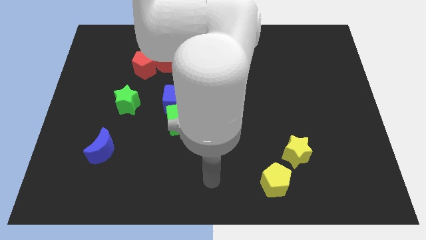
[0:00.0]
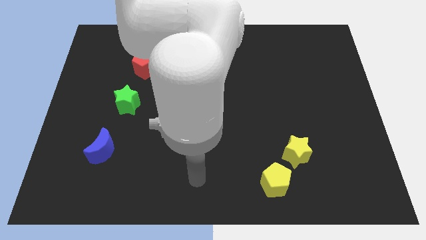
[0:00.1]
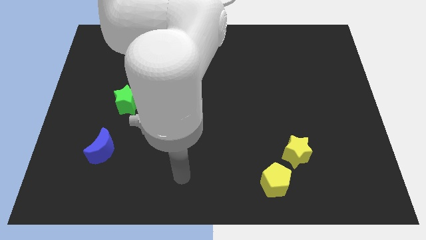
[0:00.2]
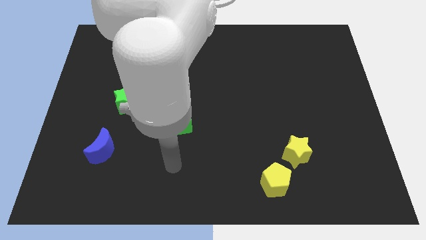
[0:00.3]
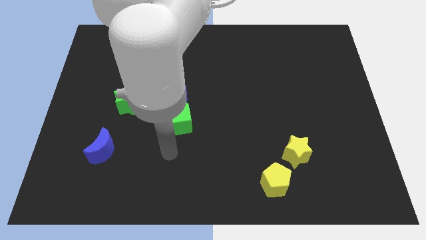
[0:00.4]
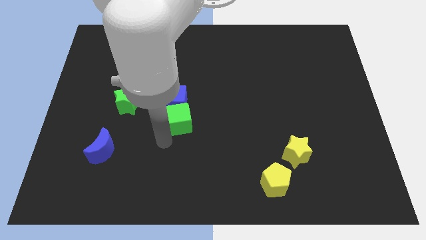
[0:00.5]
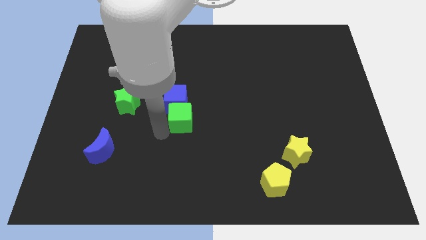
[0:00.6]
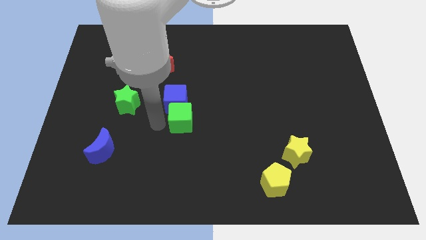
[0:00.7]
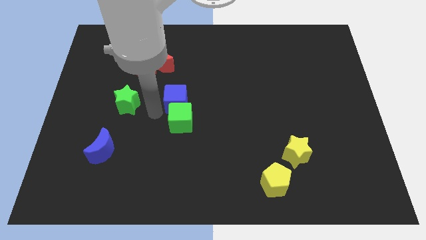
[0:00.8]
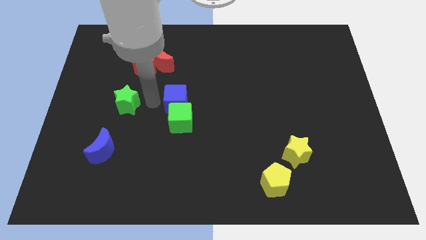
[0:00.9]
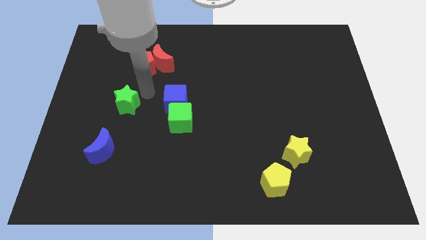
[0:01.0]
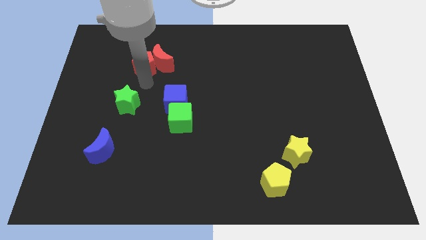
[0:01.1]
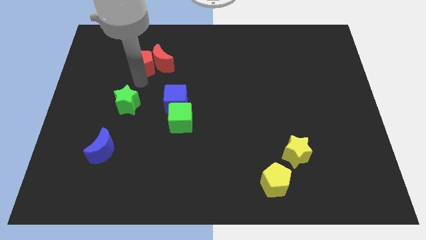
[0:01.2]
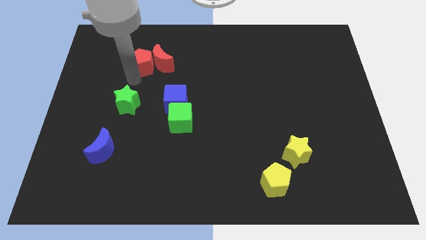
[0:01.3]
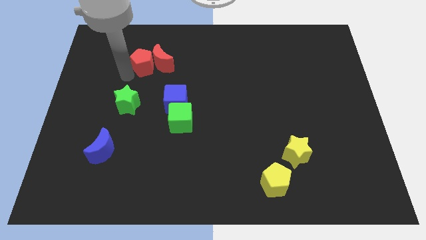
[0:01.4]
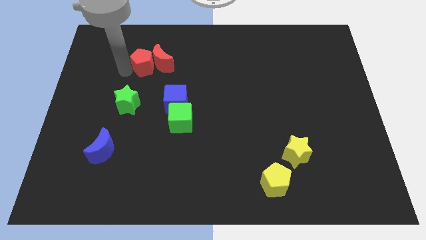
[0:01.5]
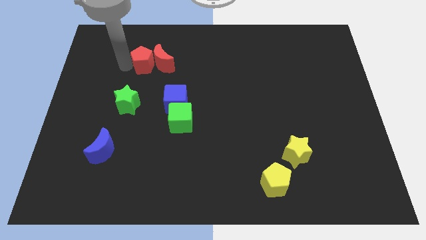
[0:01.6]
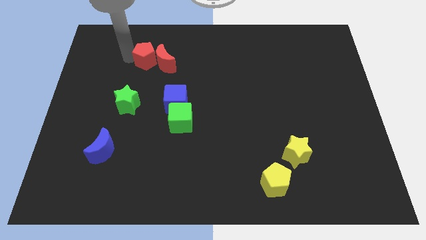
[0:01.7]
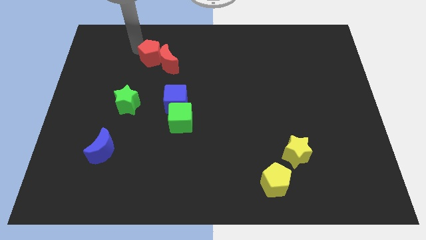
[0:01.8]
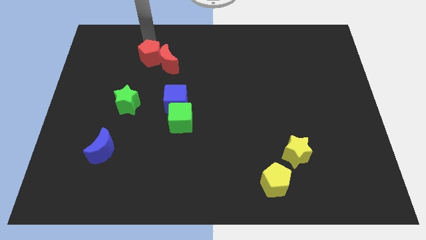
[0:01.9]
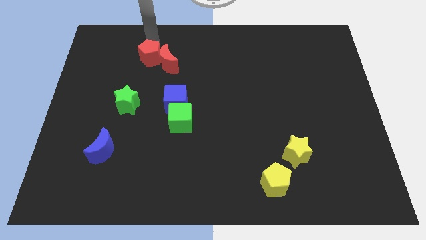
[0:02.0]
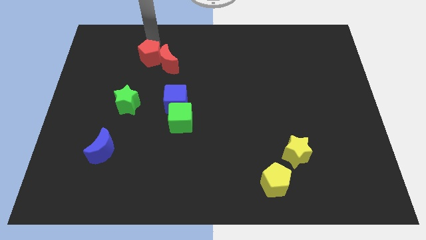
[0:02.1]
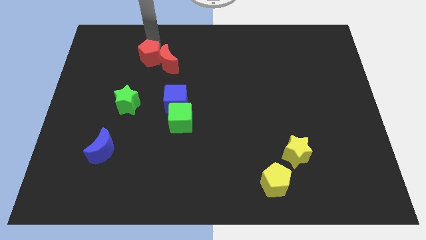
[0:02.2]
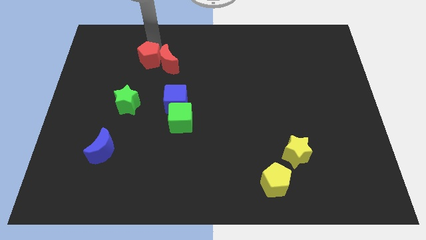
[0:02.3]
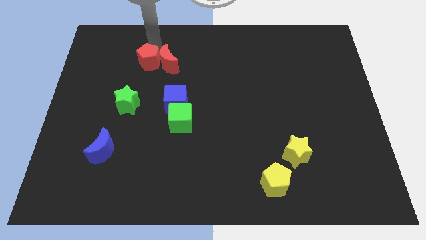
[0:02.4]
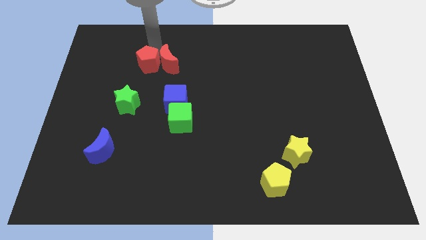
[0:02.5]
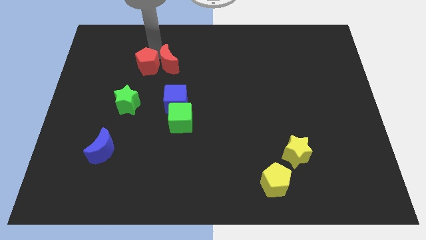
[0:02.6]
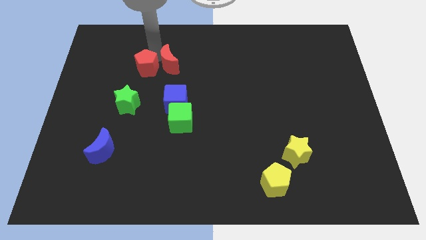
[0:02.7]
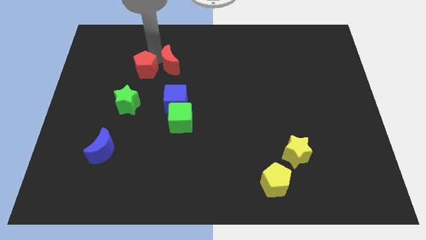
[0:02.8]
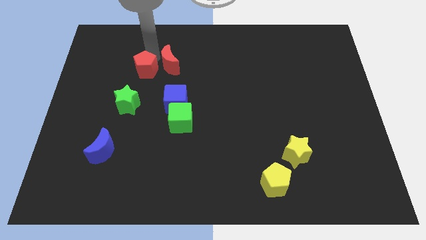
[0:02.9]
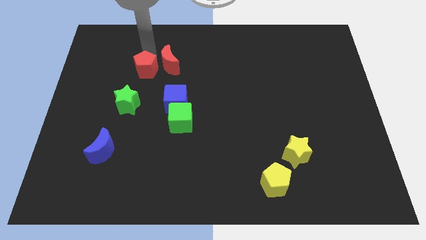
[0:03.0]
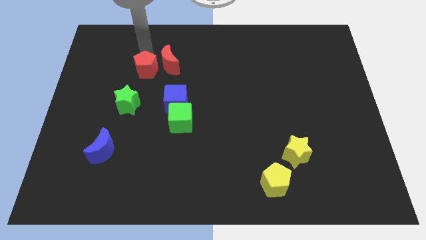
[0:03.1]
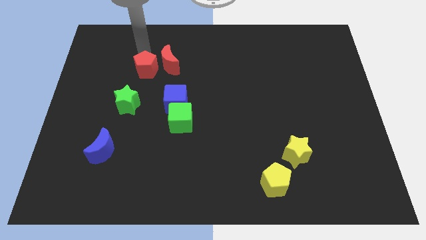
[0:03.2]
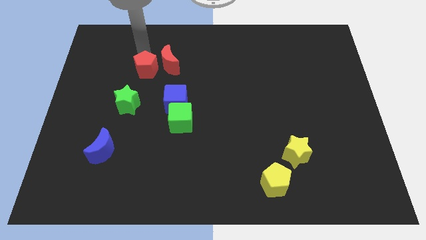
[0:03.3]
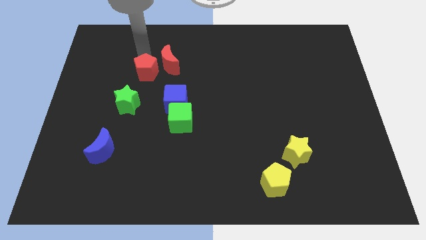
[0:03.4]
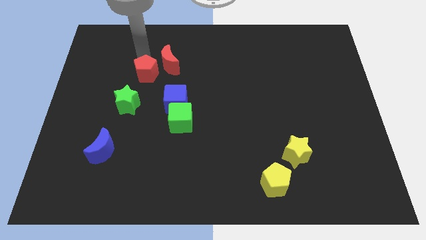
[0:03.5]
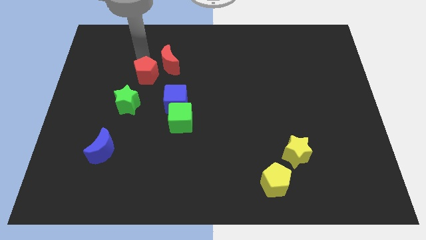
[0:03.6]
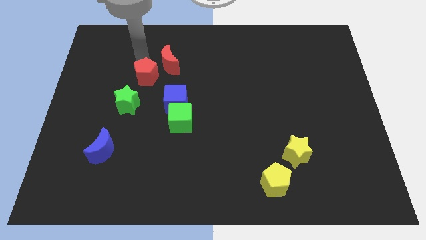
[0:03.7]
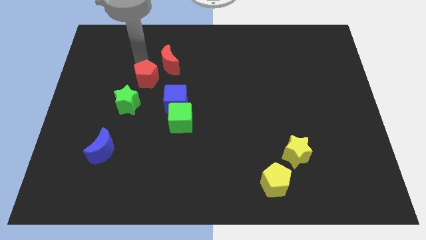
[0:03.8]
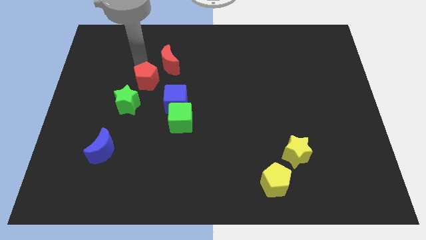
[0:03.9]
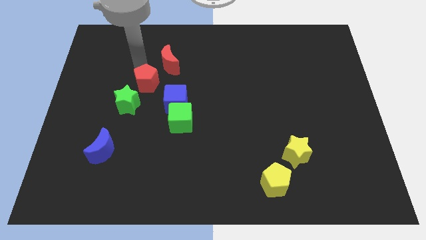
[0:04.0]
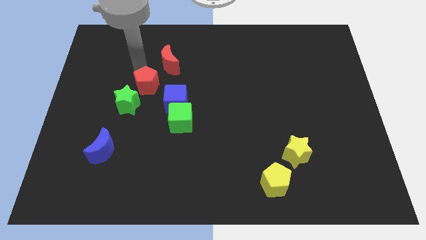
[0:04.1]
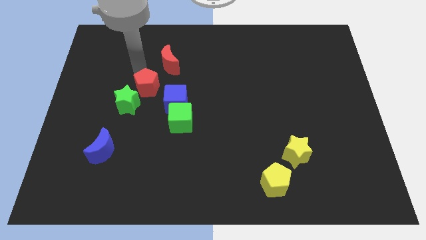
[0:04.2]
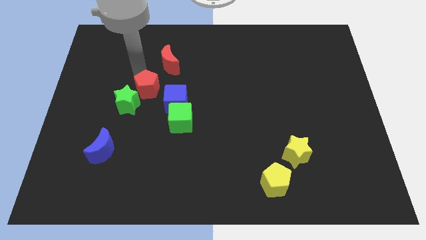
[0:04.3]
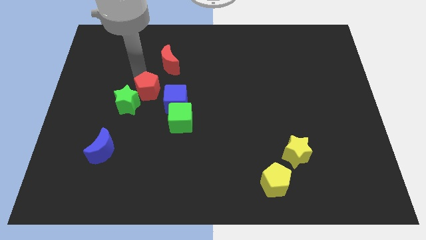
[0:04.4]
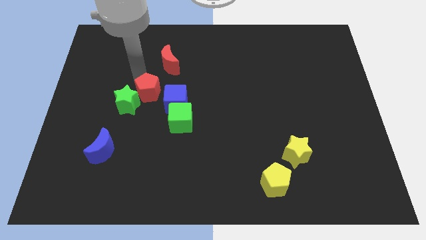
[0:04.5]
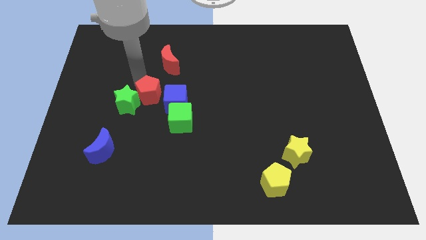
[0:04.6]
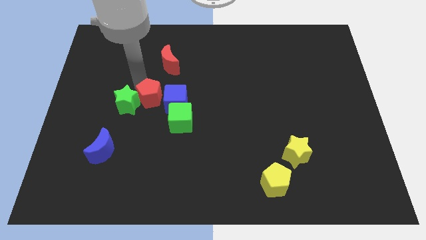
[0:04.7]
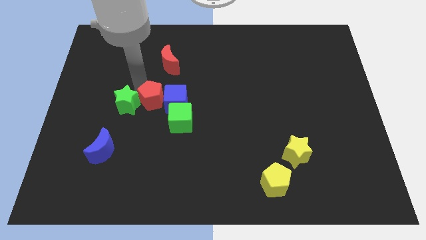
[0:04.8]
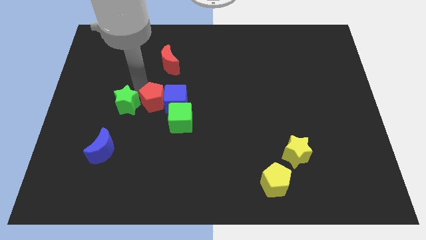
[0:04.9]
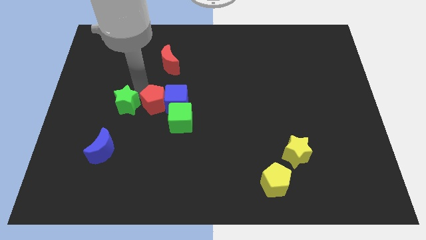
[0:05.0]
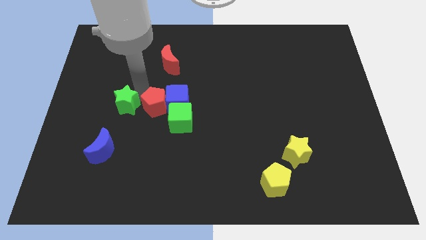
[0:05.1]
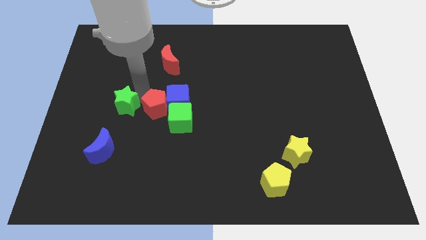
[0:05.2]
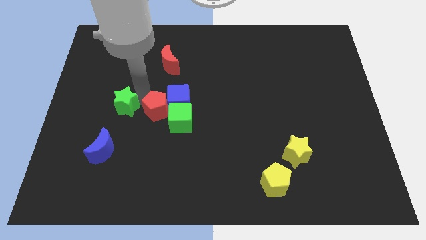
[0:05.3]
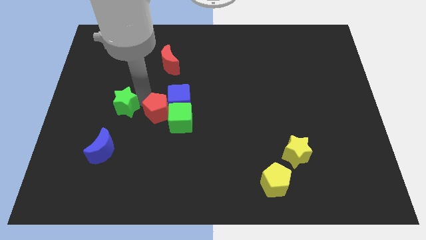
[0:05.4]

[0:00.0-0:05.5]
move the red pentagon close to the green cube

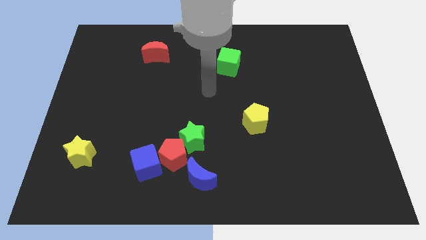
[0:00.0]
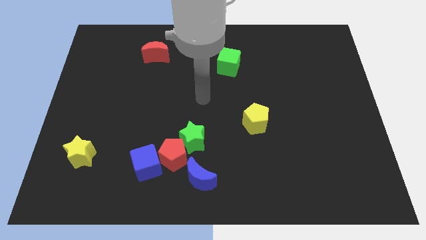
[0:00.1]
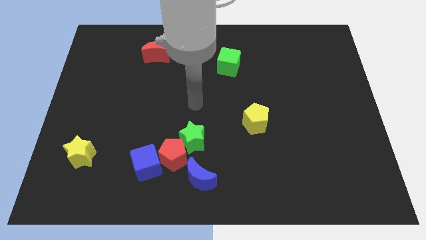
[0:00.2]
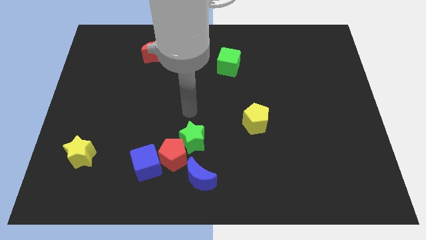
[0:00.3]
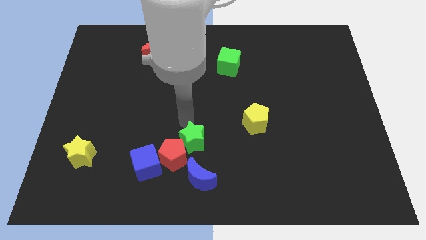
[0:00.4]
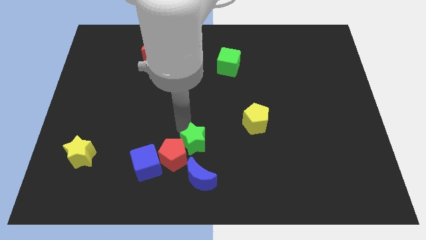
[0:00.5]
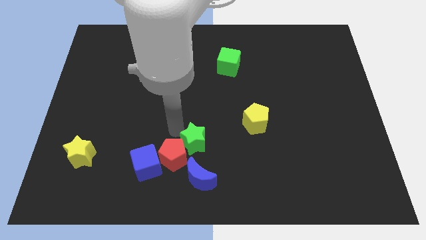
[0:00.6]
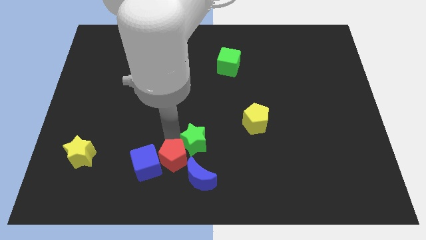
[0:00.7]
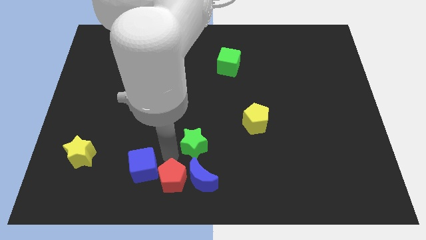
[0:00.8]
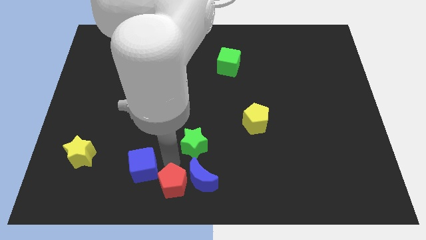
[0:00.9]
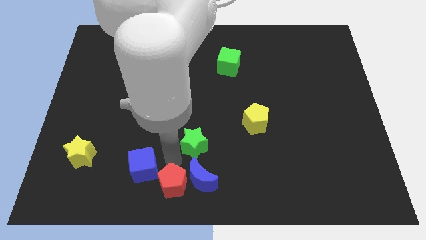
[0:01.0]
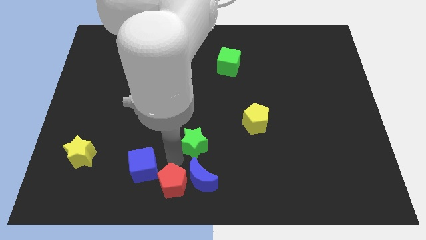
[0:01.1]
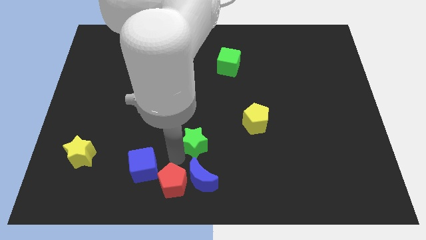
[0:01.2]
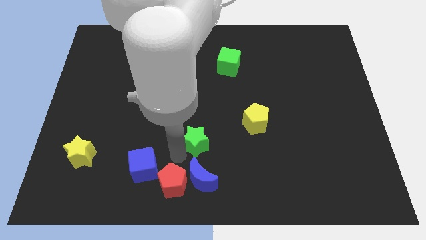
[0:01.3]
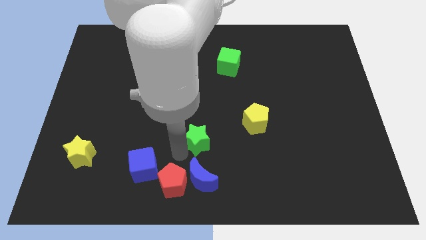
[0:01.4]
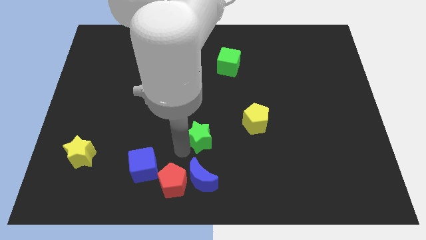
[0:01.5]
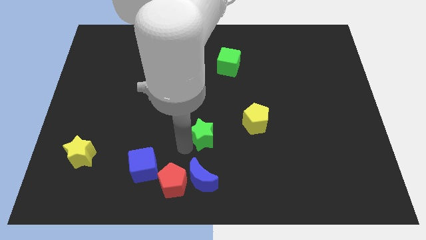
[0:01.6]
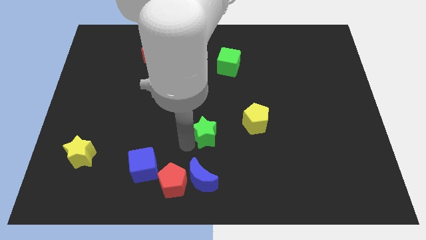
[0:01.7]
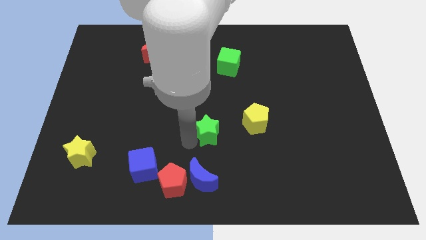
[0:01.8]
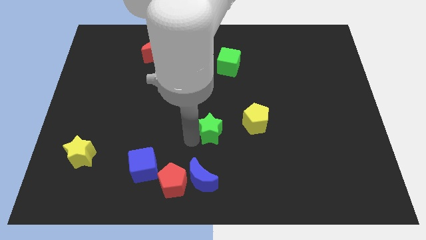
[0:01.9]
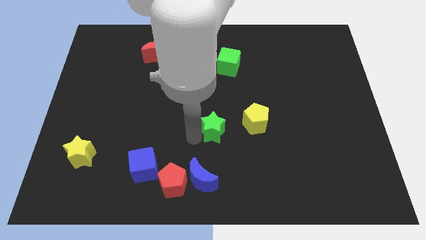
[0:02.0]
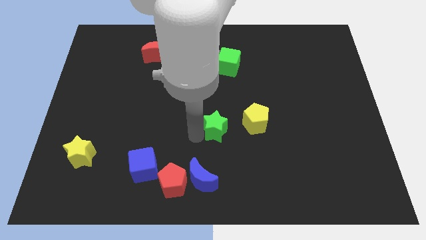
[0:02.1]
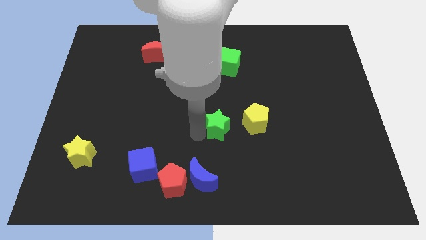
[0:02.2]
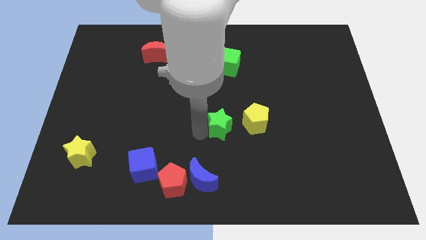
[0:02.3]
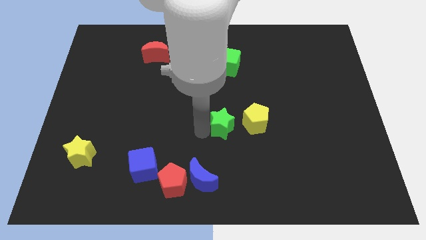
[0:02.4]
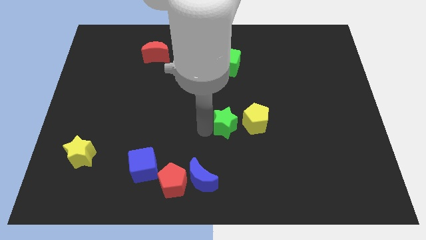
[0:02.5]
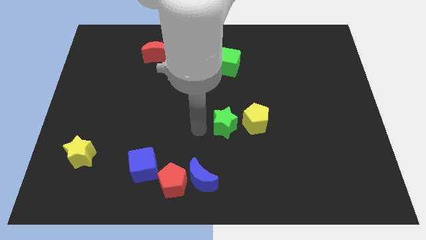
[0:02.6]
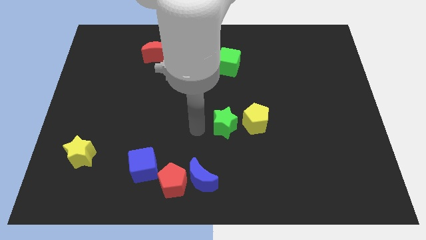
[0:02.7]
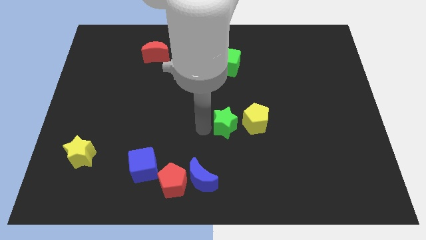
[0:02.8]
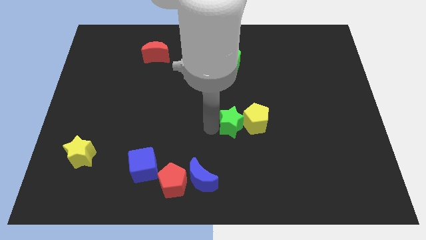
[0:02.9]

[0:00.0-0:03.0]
move the green star to the yellow pentagon
